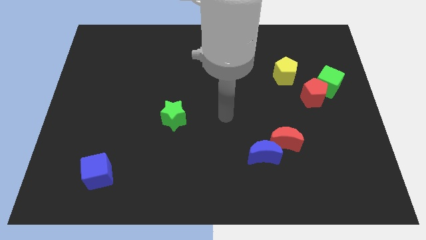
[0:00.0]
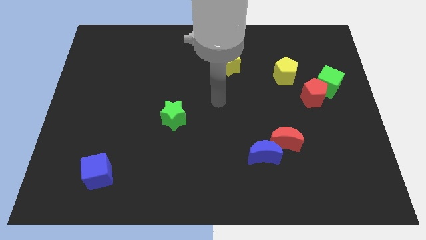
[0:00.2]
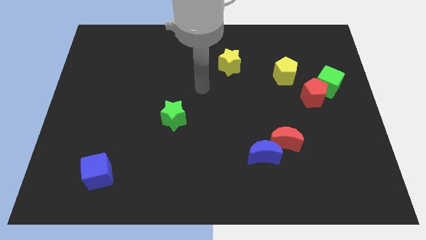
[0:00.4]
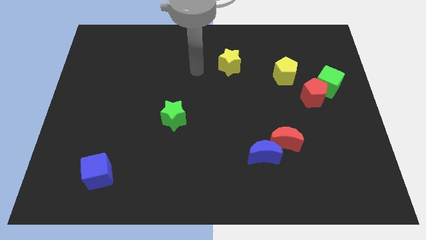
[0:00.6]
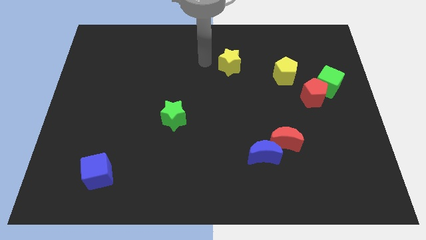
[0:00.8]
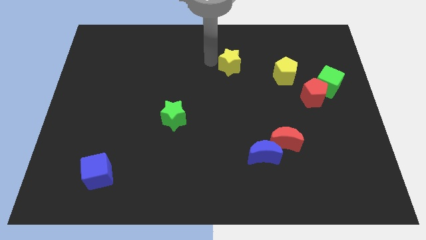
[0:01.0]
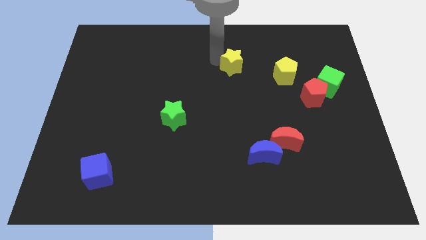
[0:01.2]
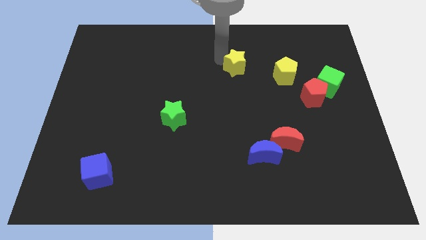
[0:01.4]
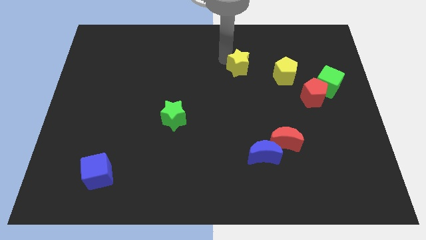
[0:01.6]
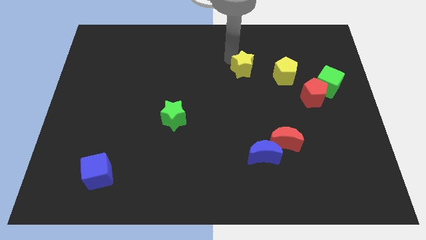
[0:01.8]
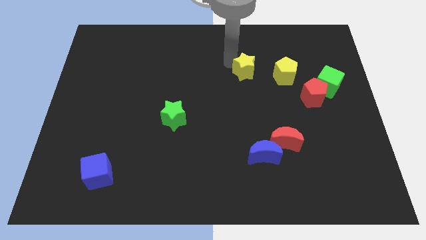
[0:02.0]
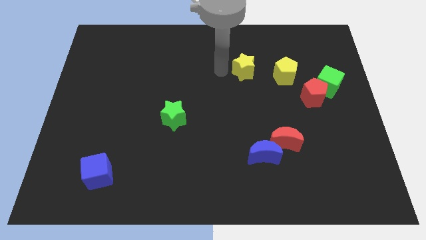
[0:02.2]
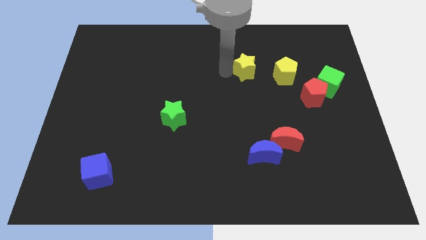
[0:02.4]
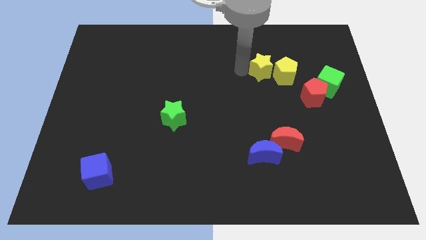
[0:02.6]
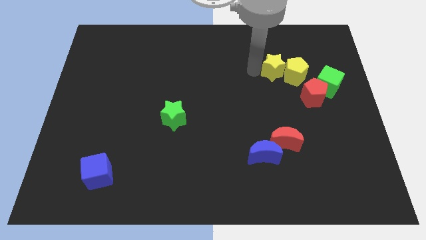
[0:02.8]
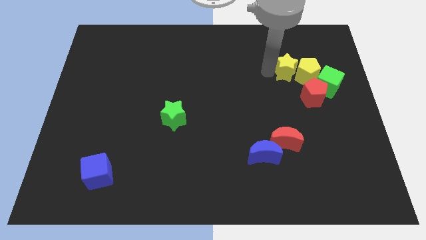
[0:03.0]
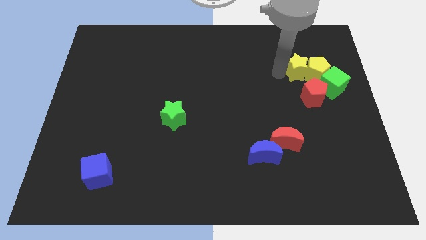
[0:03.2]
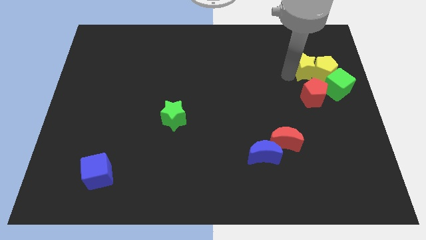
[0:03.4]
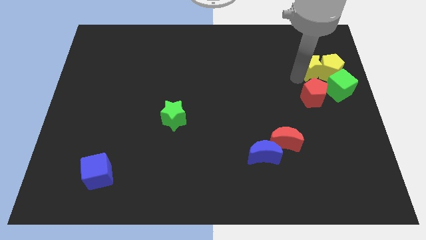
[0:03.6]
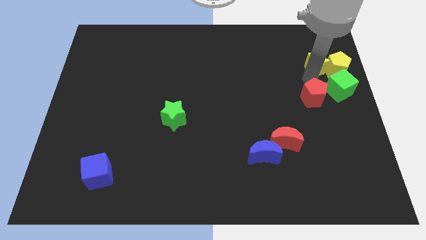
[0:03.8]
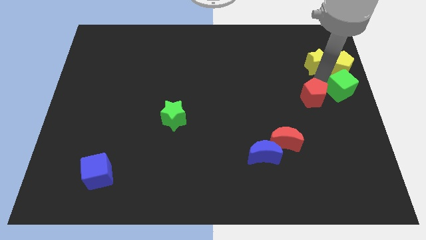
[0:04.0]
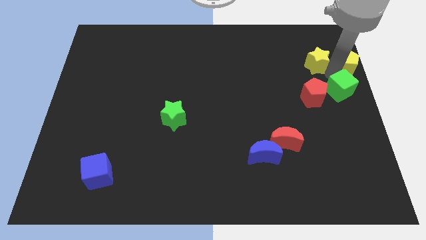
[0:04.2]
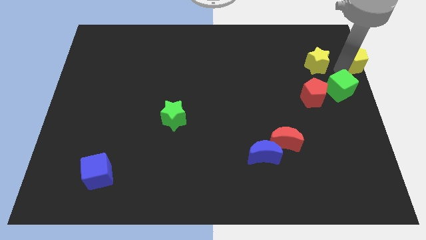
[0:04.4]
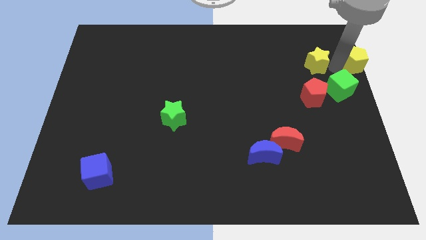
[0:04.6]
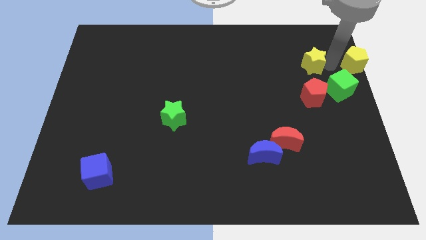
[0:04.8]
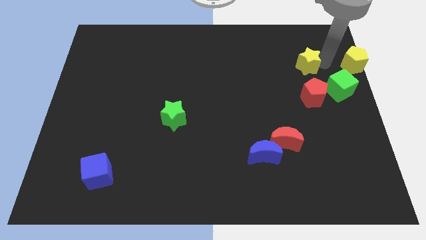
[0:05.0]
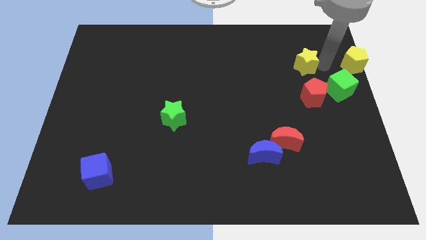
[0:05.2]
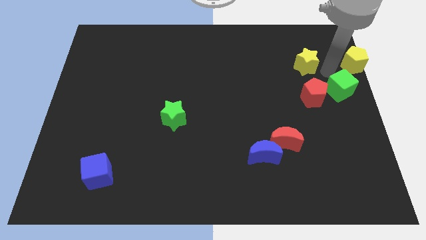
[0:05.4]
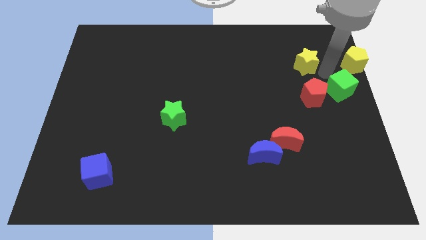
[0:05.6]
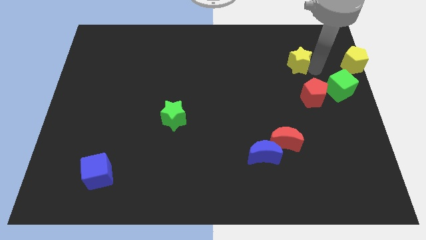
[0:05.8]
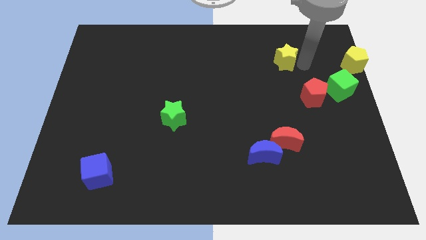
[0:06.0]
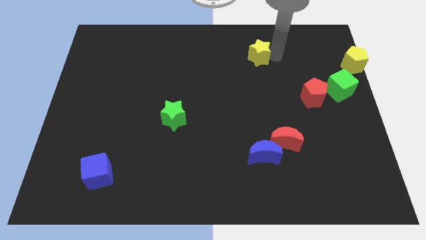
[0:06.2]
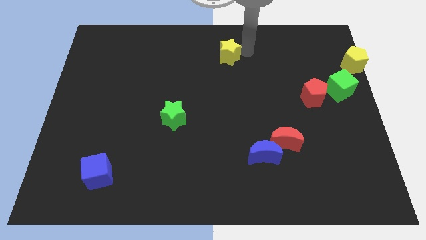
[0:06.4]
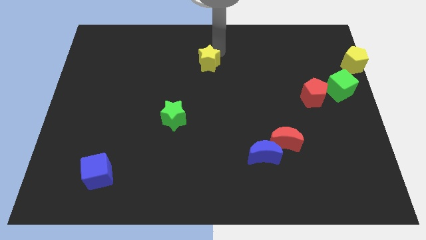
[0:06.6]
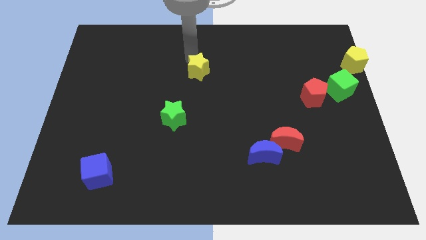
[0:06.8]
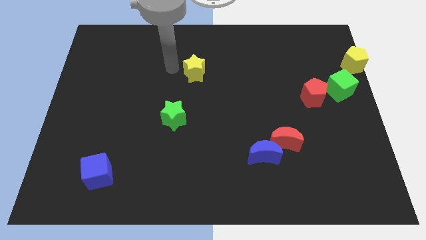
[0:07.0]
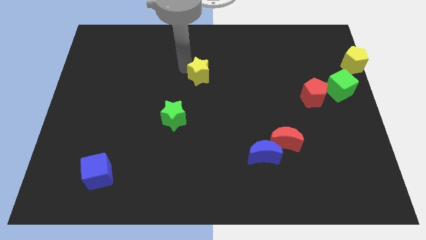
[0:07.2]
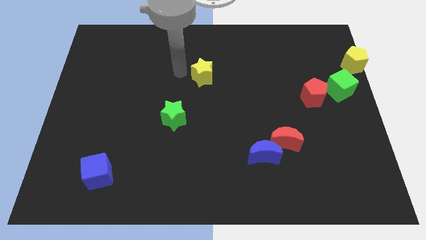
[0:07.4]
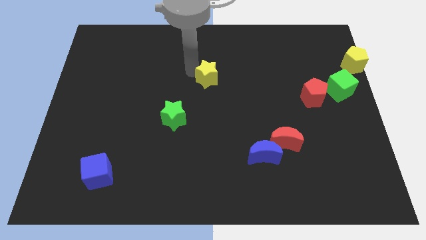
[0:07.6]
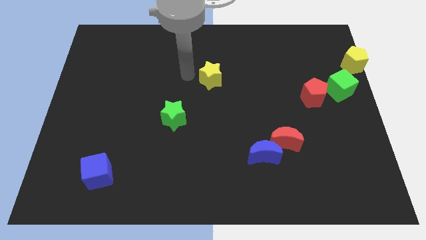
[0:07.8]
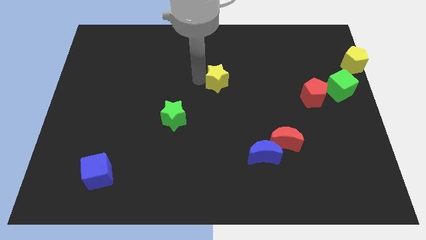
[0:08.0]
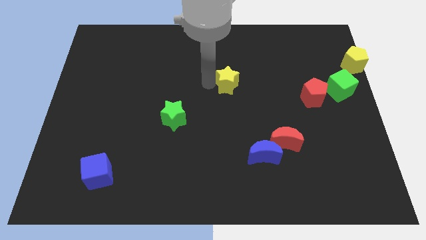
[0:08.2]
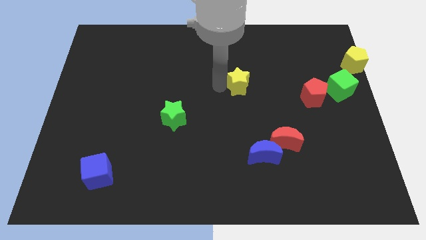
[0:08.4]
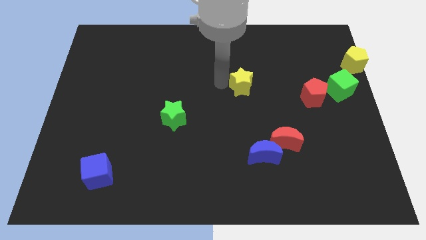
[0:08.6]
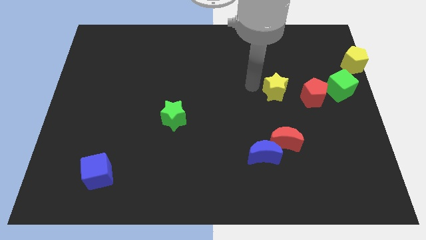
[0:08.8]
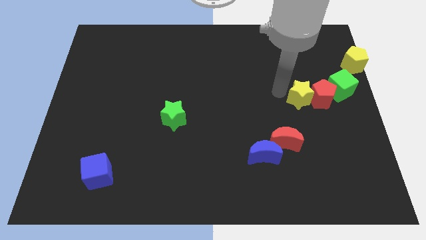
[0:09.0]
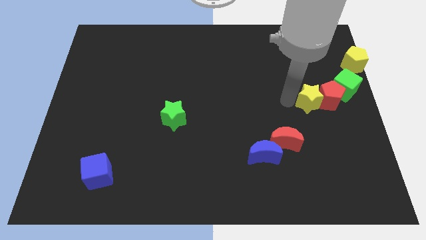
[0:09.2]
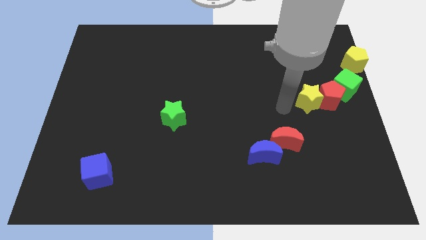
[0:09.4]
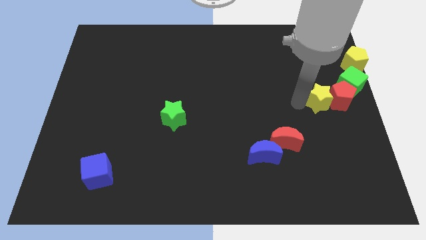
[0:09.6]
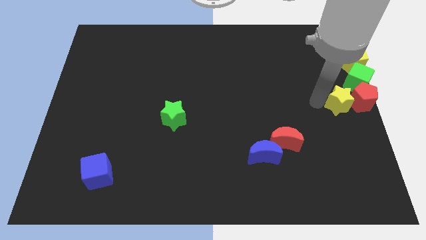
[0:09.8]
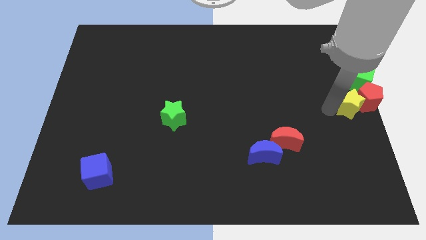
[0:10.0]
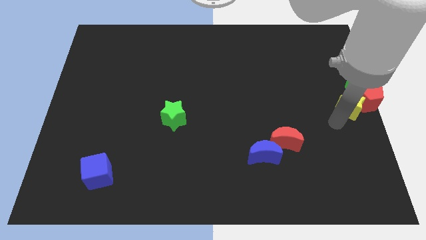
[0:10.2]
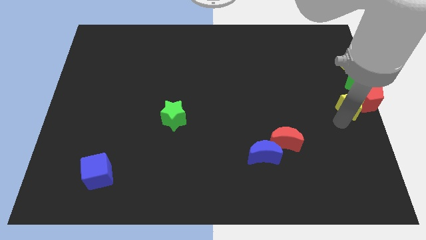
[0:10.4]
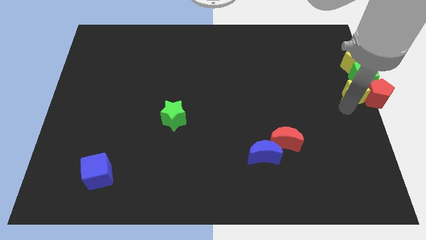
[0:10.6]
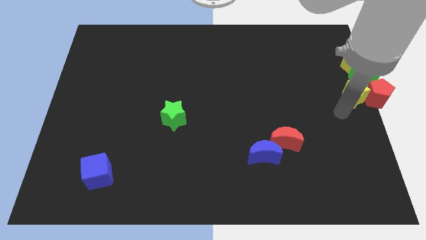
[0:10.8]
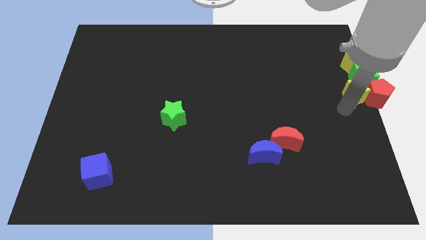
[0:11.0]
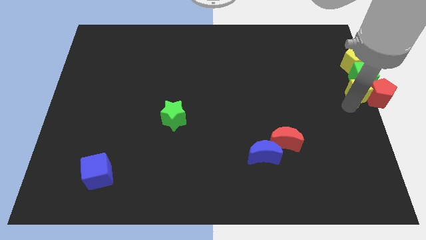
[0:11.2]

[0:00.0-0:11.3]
put the yellow star towards the green cube

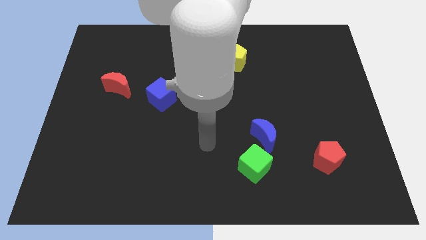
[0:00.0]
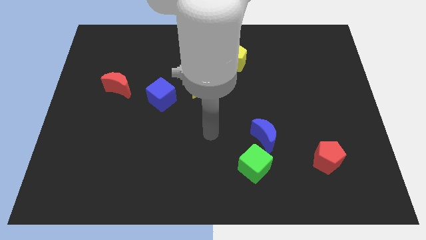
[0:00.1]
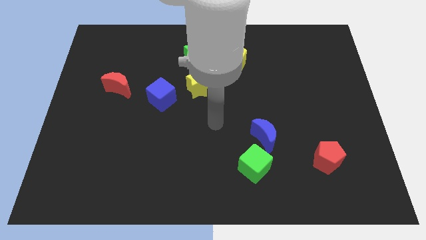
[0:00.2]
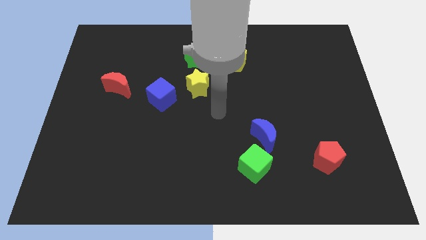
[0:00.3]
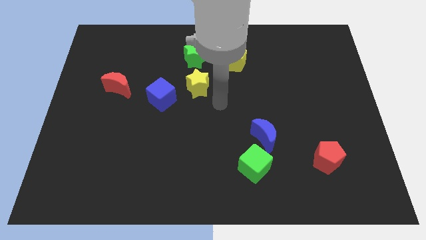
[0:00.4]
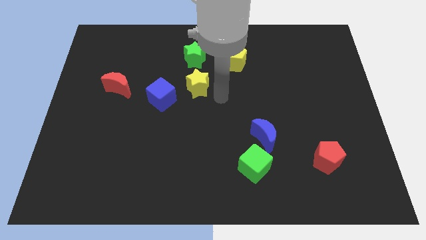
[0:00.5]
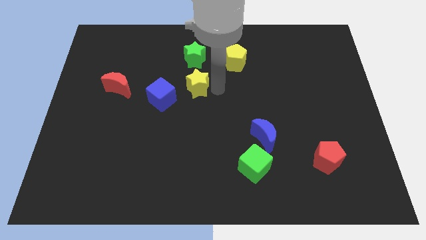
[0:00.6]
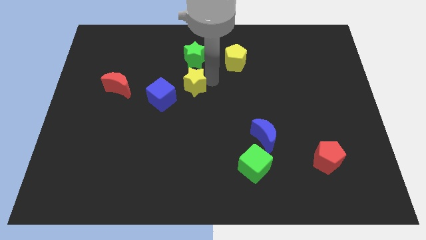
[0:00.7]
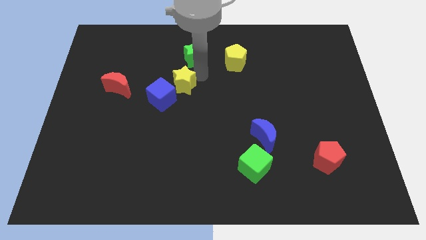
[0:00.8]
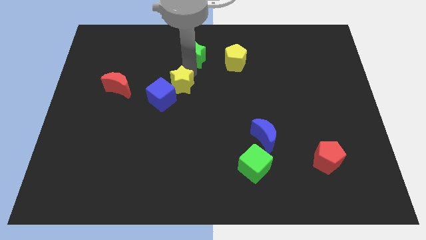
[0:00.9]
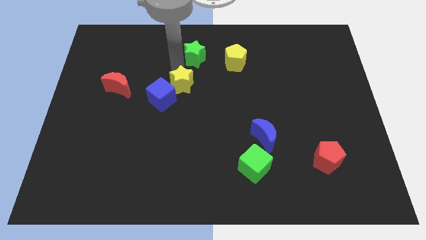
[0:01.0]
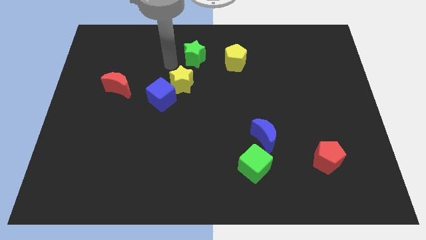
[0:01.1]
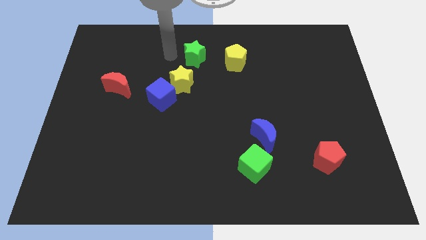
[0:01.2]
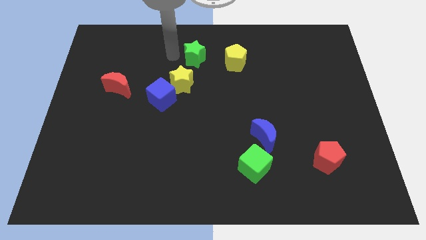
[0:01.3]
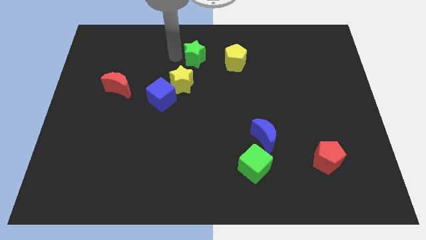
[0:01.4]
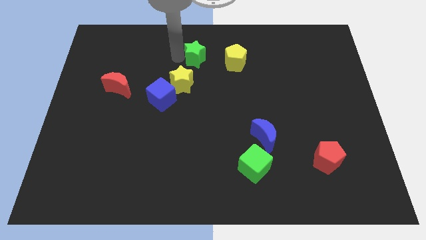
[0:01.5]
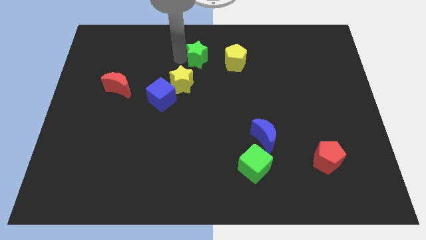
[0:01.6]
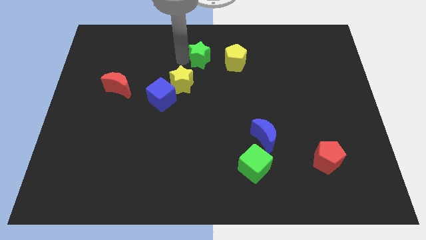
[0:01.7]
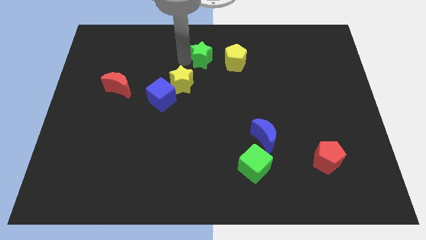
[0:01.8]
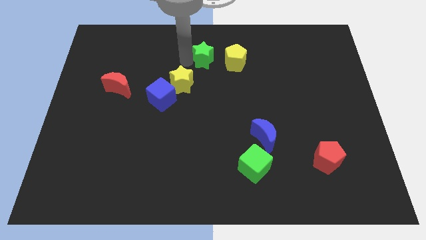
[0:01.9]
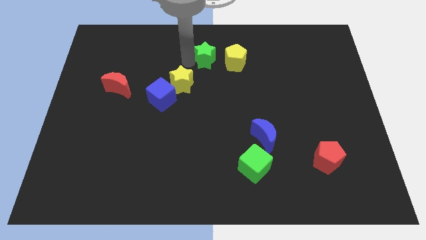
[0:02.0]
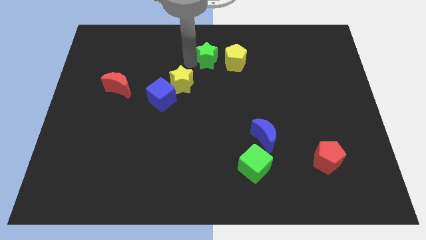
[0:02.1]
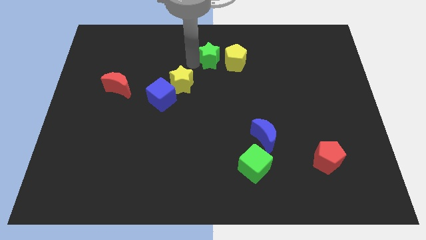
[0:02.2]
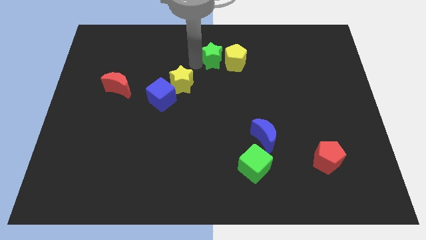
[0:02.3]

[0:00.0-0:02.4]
move the green star next to the yellow pentagon
